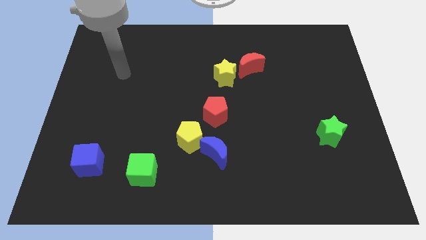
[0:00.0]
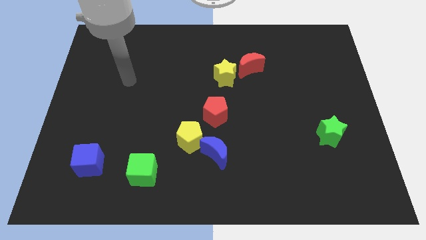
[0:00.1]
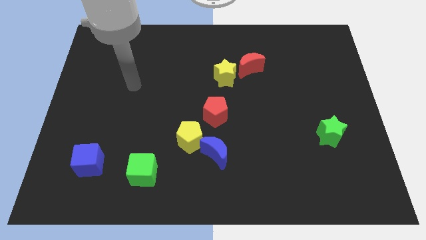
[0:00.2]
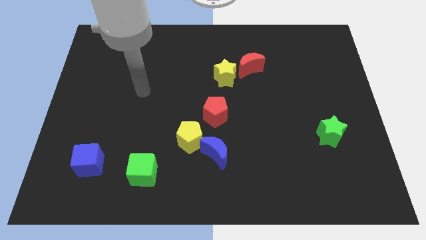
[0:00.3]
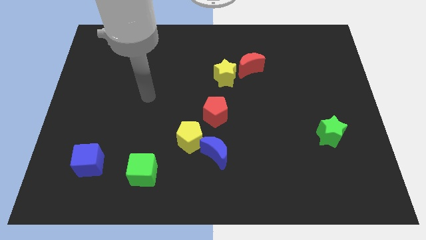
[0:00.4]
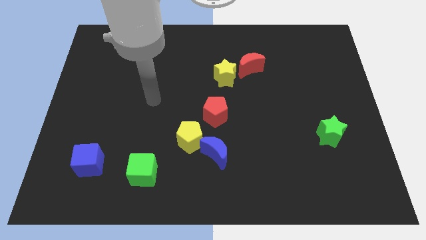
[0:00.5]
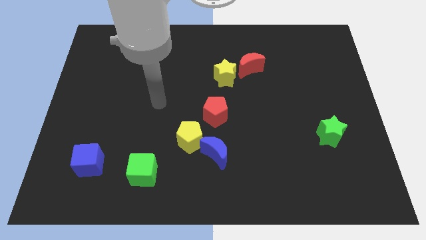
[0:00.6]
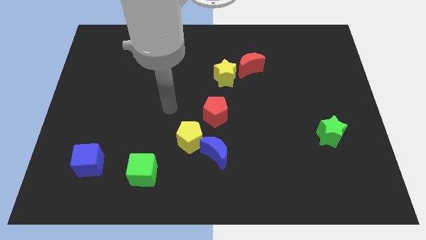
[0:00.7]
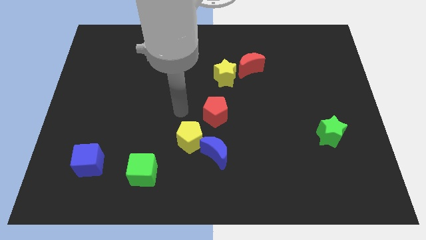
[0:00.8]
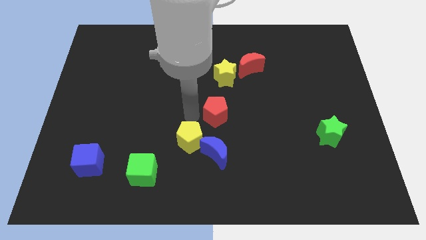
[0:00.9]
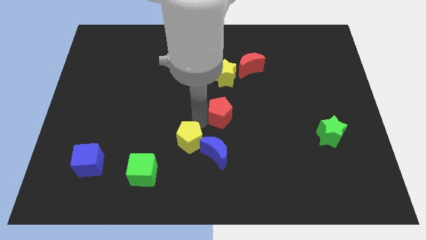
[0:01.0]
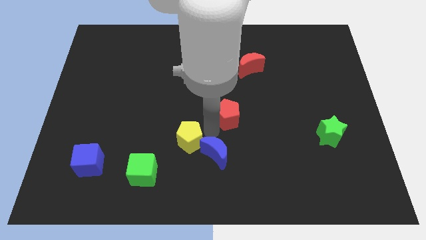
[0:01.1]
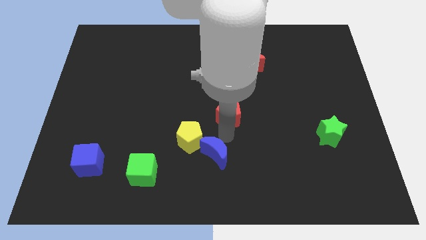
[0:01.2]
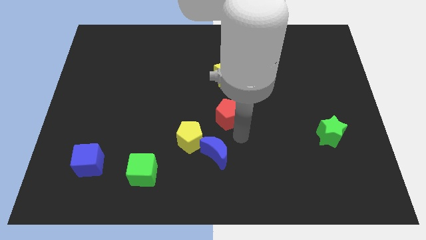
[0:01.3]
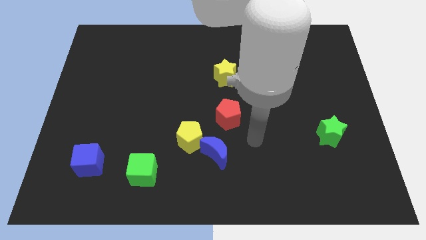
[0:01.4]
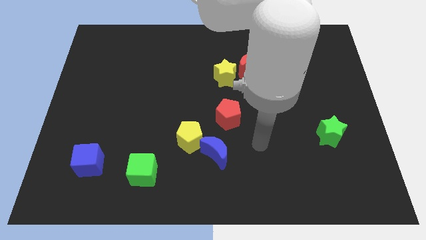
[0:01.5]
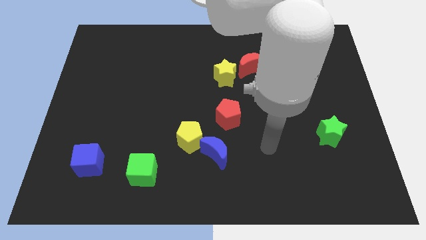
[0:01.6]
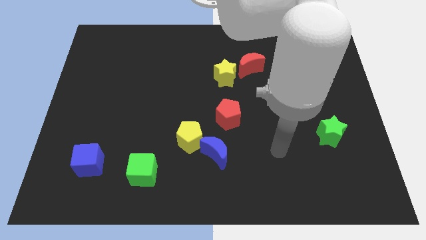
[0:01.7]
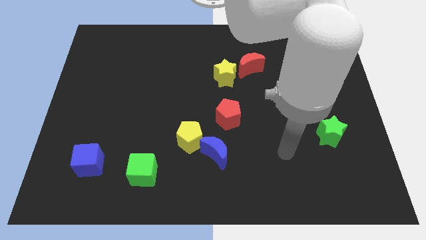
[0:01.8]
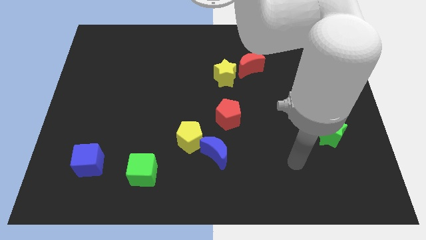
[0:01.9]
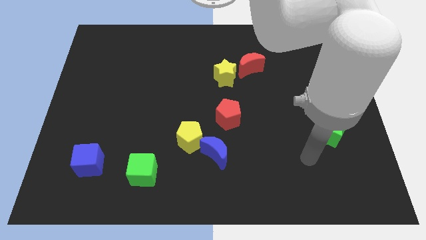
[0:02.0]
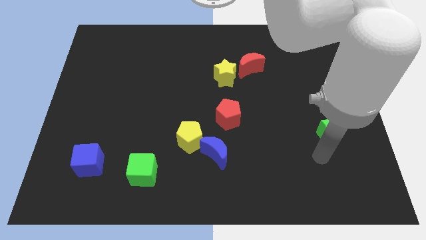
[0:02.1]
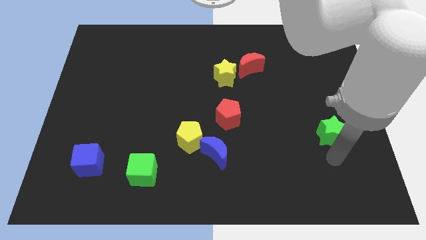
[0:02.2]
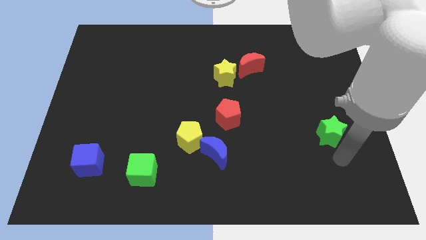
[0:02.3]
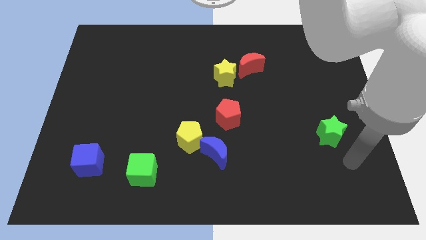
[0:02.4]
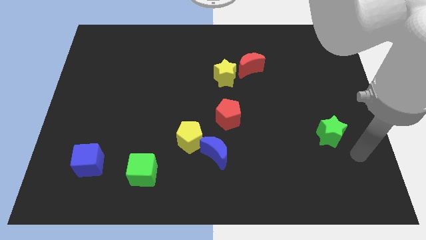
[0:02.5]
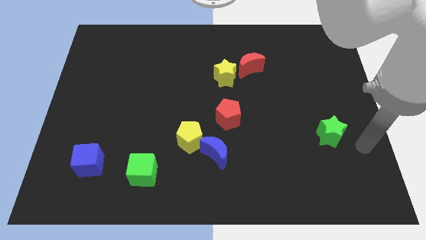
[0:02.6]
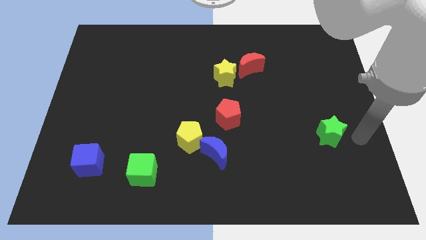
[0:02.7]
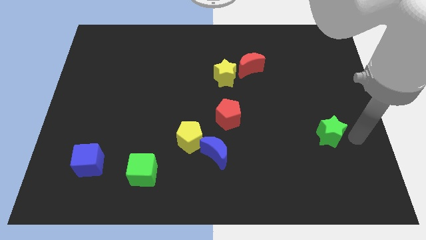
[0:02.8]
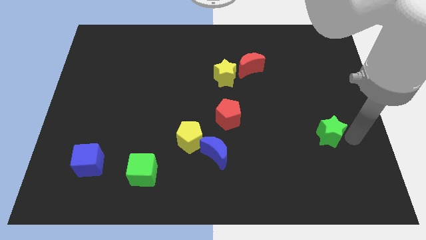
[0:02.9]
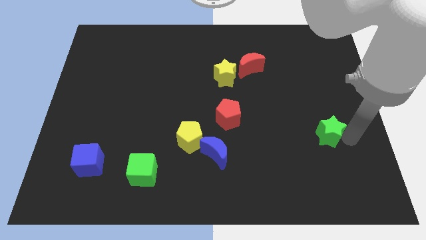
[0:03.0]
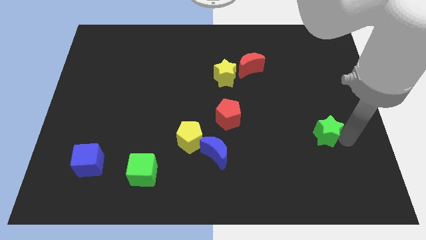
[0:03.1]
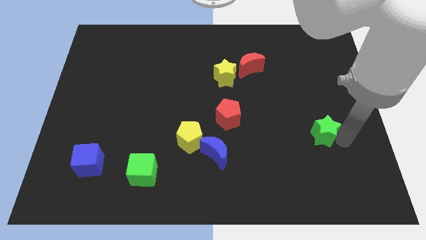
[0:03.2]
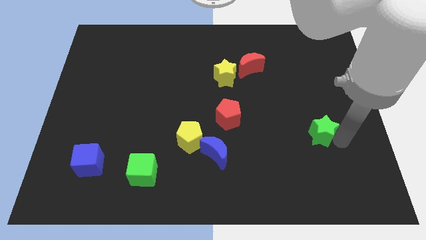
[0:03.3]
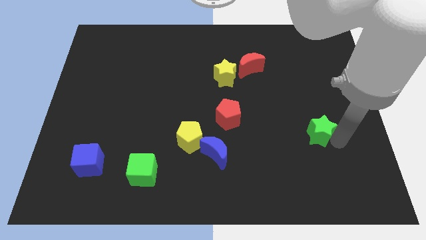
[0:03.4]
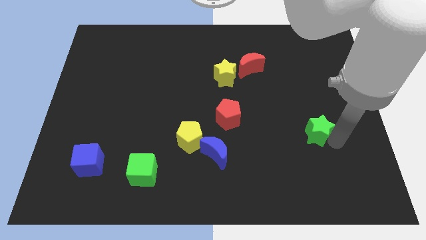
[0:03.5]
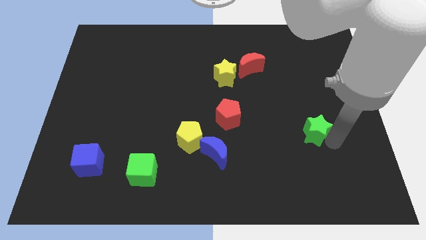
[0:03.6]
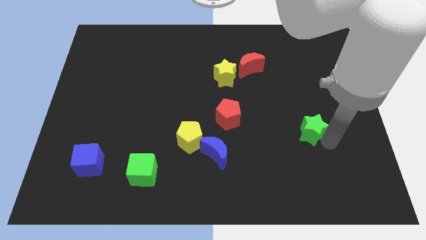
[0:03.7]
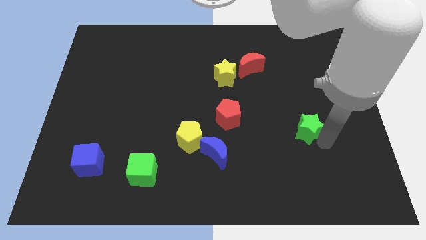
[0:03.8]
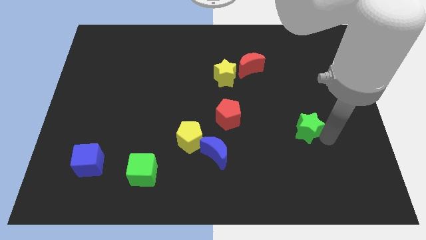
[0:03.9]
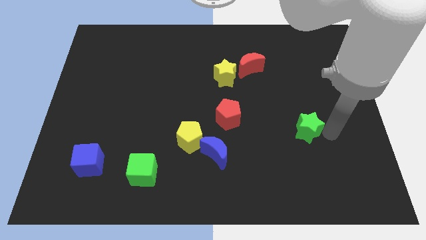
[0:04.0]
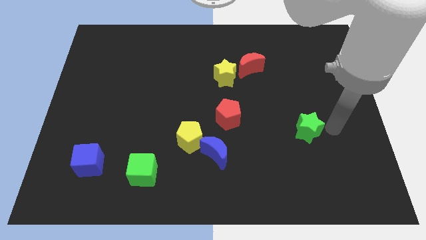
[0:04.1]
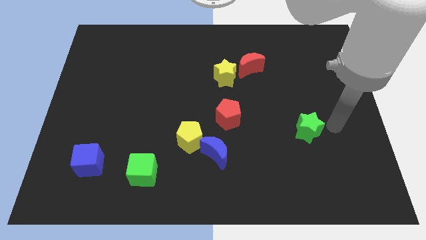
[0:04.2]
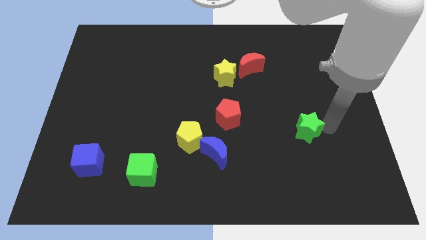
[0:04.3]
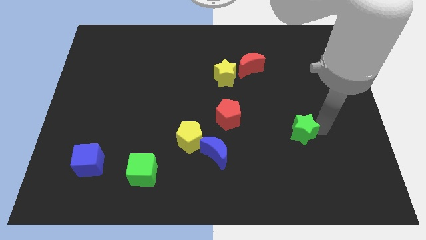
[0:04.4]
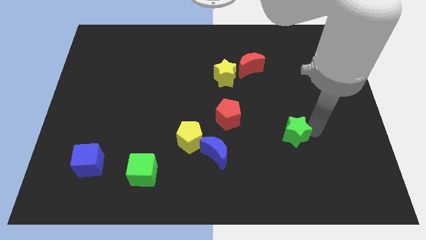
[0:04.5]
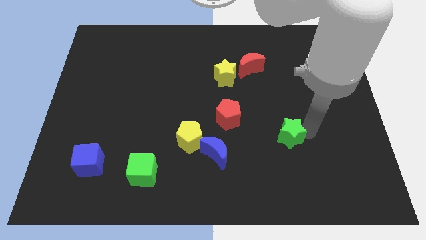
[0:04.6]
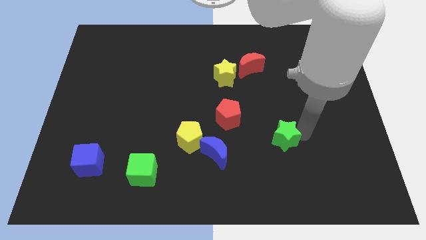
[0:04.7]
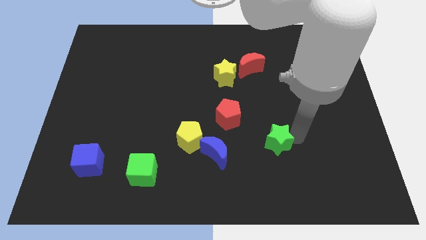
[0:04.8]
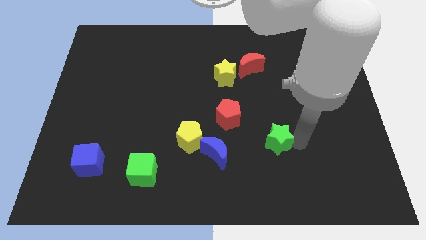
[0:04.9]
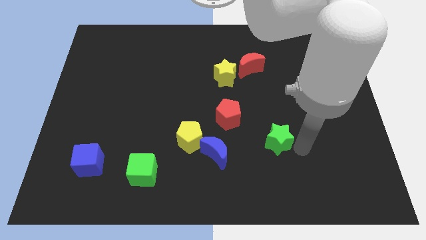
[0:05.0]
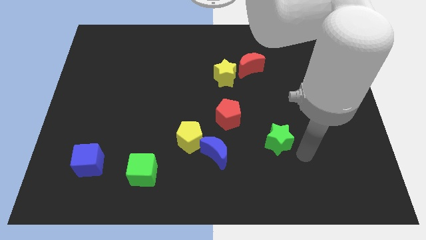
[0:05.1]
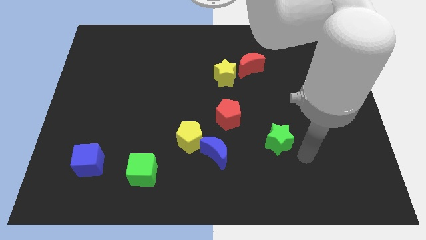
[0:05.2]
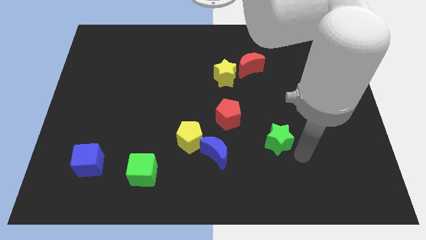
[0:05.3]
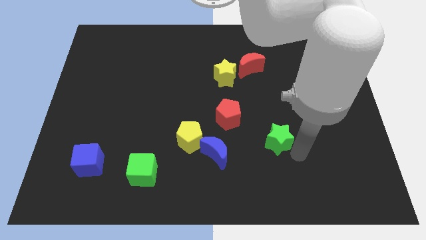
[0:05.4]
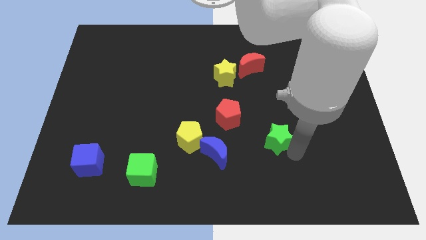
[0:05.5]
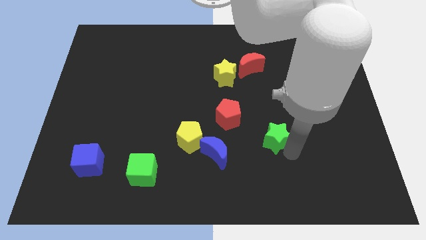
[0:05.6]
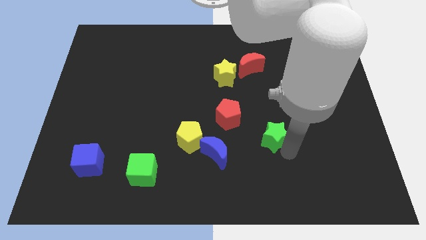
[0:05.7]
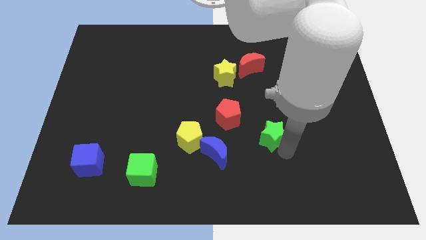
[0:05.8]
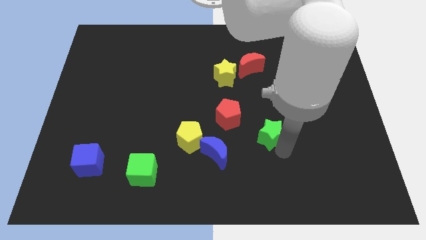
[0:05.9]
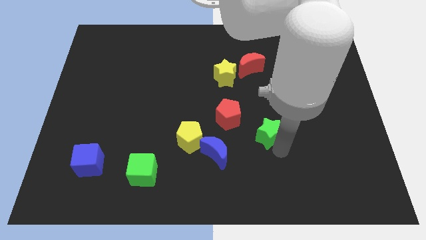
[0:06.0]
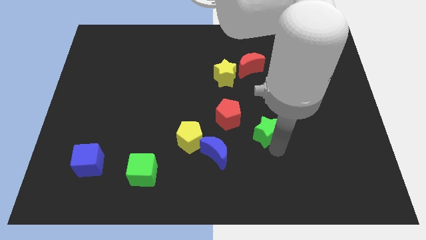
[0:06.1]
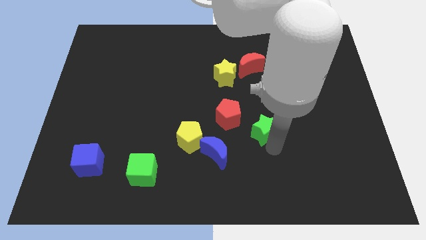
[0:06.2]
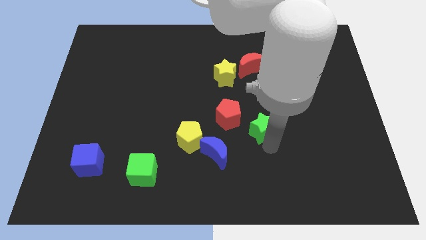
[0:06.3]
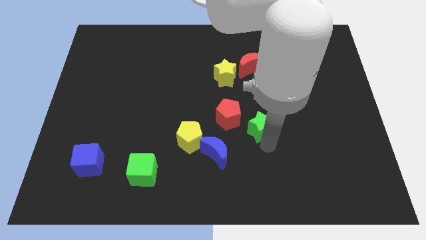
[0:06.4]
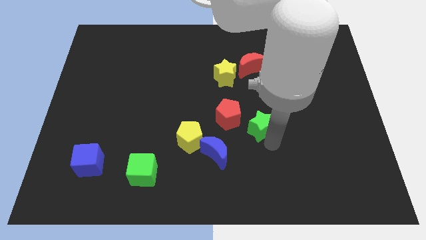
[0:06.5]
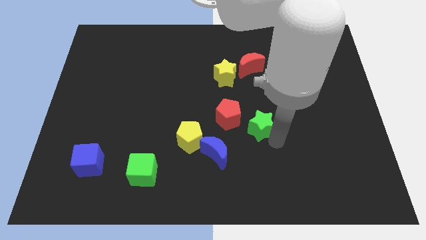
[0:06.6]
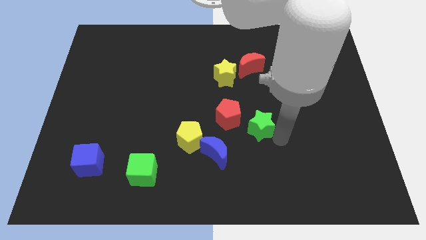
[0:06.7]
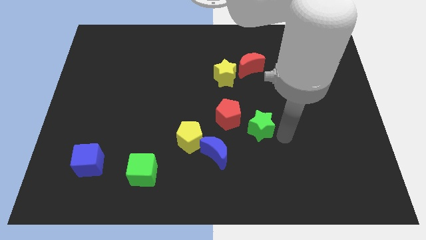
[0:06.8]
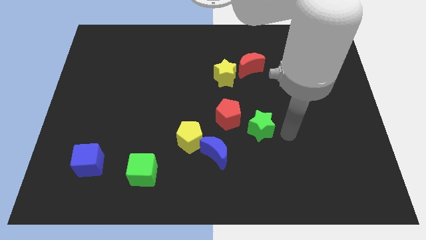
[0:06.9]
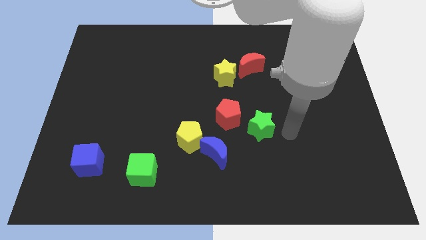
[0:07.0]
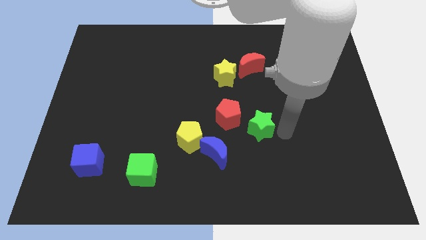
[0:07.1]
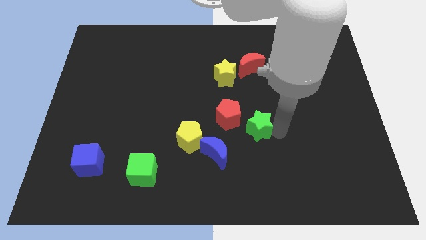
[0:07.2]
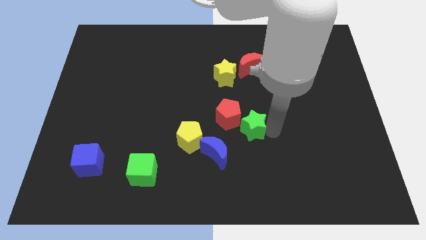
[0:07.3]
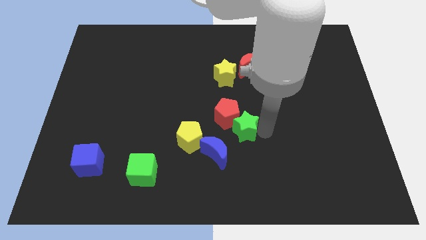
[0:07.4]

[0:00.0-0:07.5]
put the green star towards the red pentagon

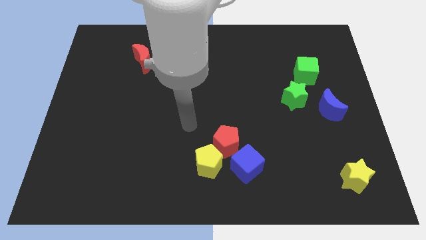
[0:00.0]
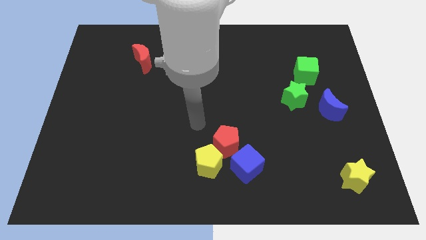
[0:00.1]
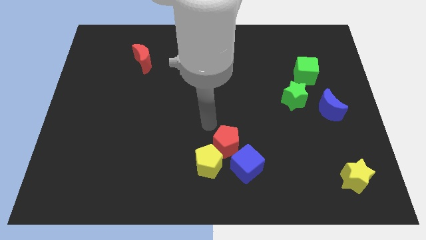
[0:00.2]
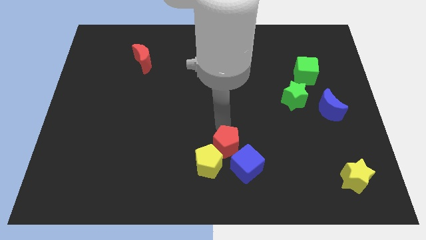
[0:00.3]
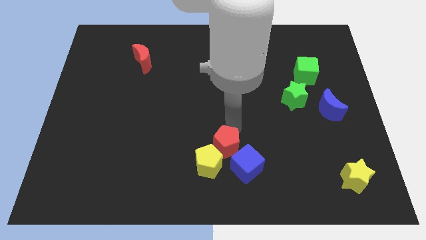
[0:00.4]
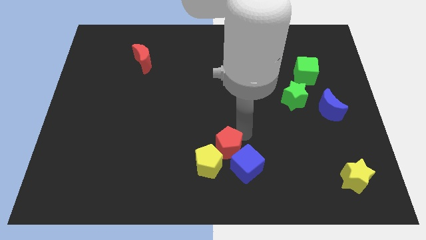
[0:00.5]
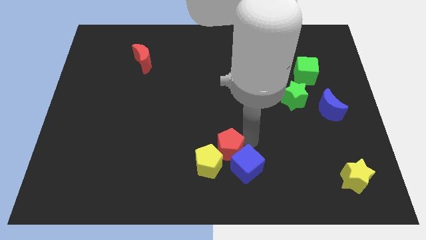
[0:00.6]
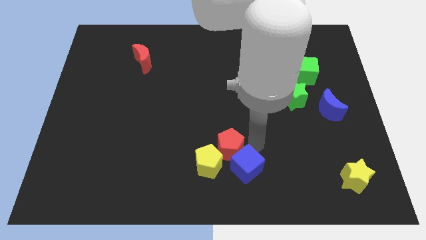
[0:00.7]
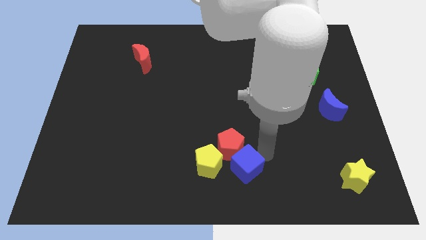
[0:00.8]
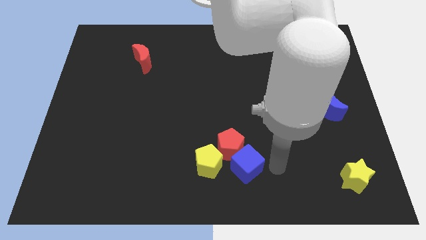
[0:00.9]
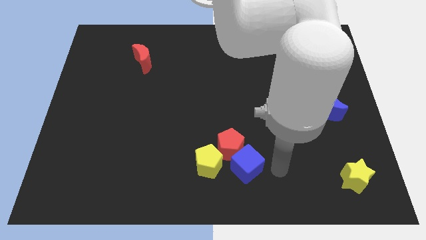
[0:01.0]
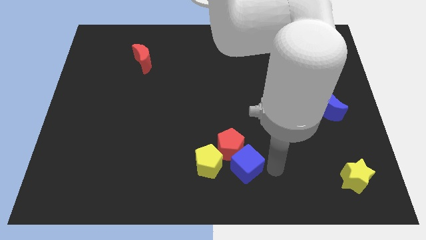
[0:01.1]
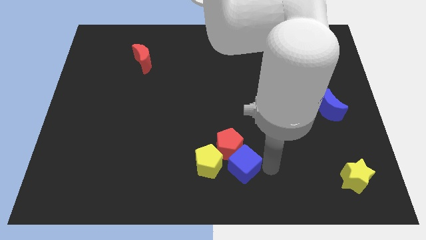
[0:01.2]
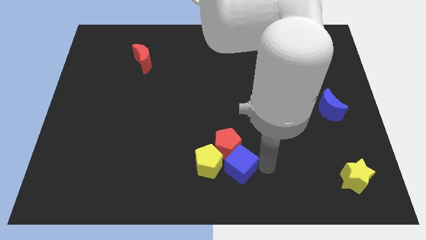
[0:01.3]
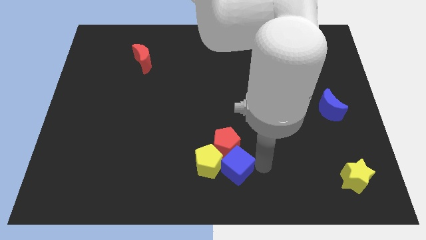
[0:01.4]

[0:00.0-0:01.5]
move the blue cube next to the yellow pentagon
